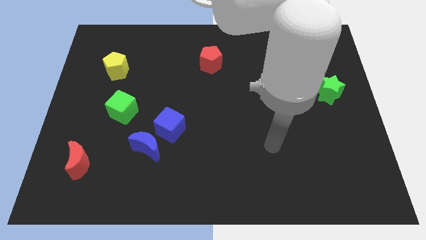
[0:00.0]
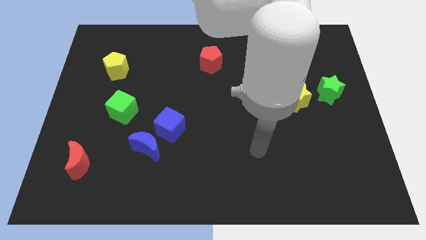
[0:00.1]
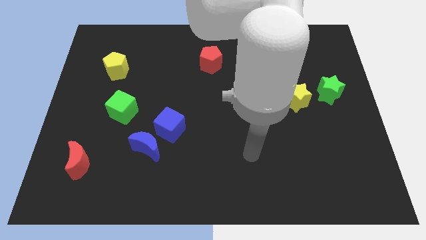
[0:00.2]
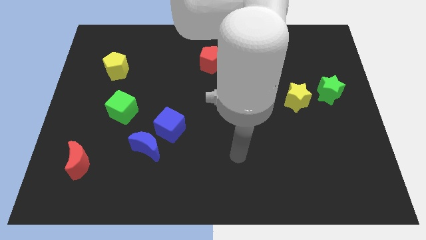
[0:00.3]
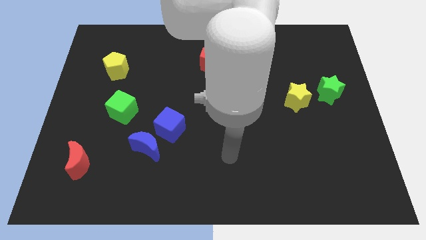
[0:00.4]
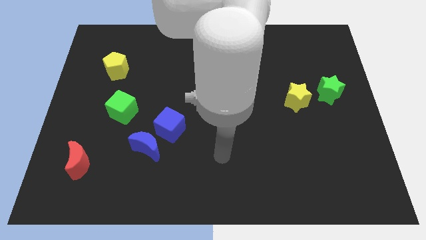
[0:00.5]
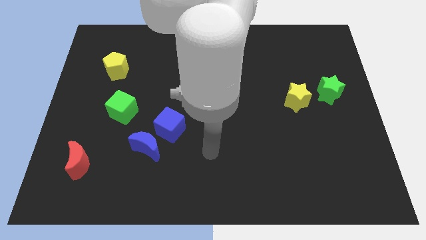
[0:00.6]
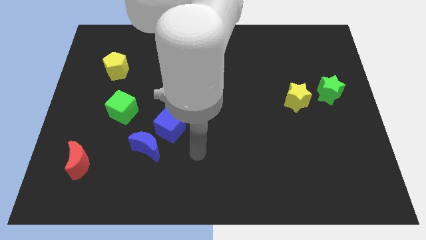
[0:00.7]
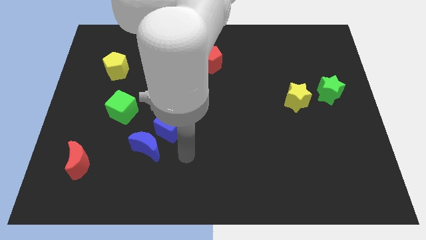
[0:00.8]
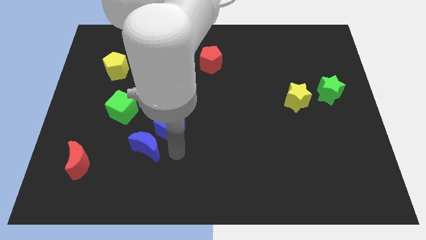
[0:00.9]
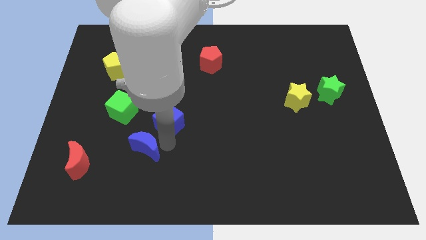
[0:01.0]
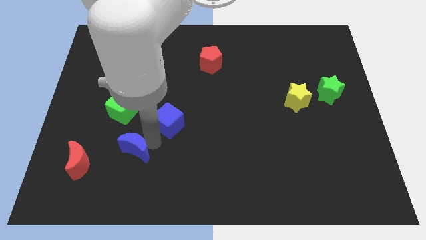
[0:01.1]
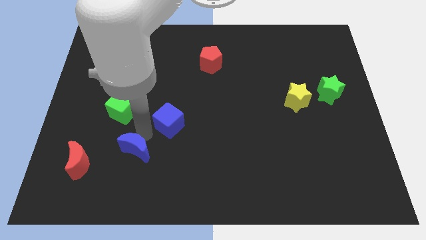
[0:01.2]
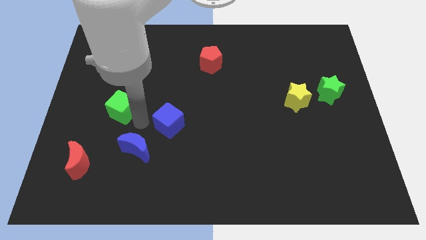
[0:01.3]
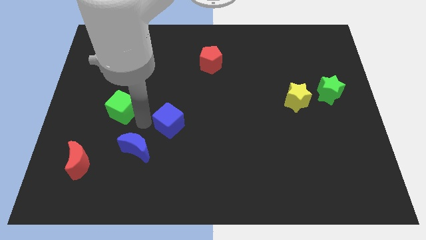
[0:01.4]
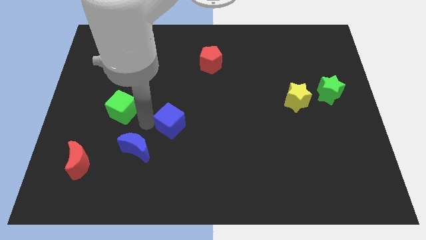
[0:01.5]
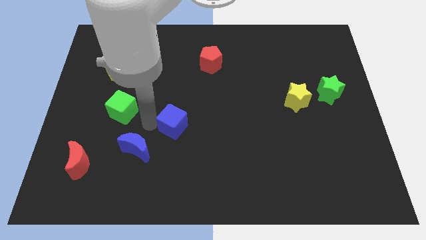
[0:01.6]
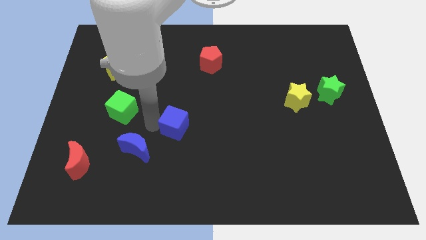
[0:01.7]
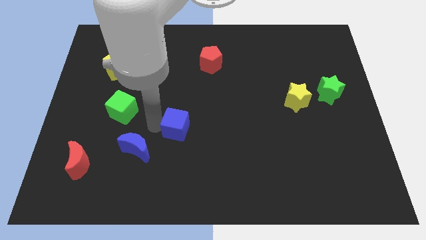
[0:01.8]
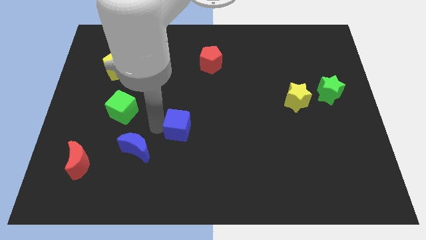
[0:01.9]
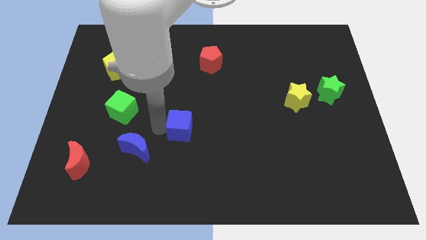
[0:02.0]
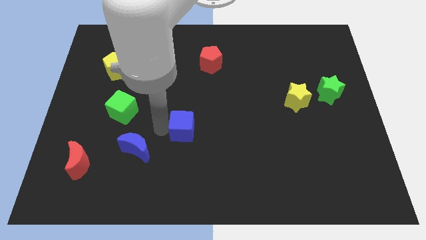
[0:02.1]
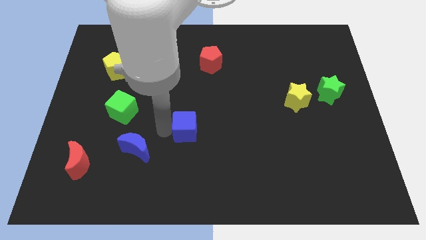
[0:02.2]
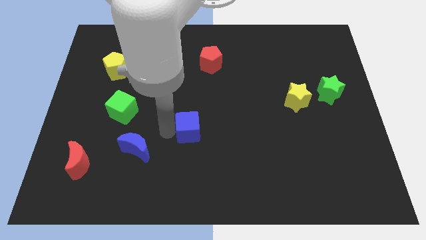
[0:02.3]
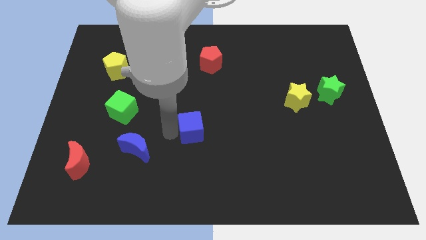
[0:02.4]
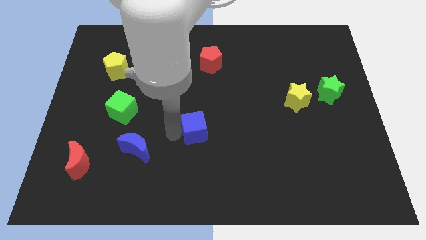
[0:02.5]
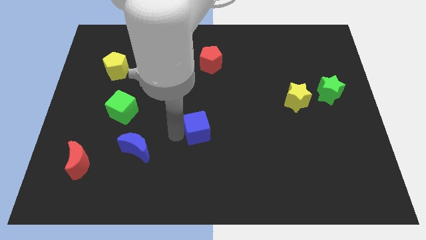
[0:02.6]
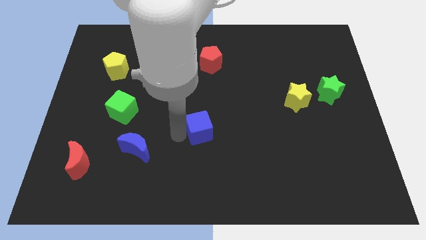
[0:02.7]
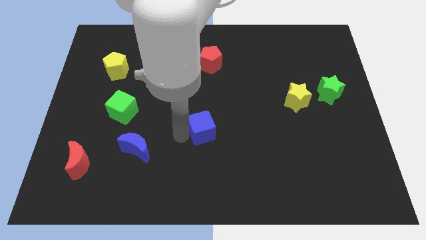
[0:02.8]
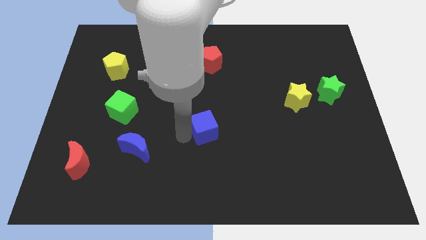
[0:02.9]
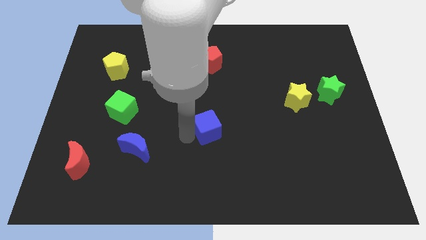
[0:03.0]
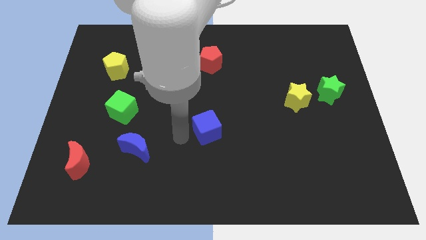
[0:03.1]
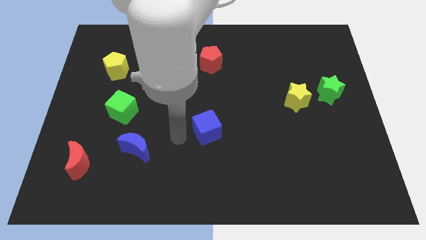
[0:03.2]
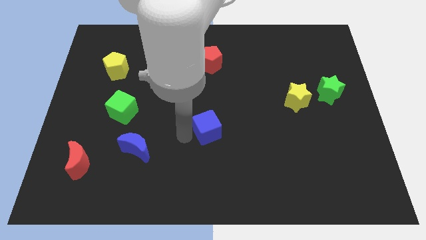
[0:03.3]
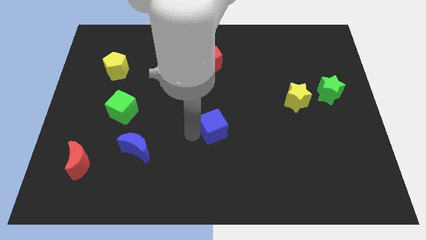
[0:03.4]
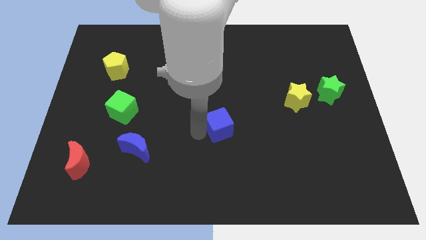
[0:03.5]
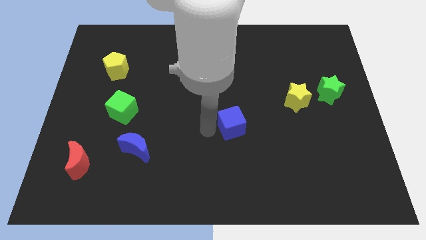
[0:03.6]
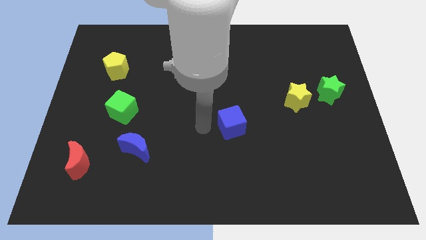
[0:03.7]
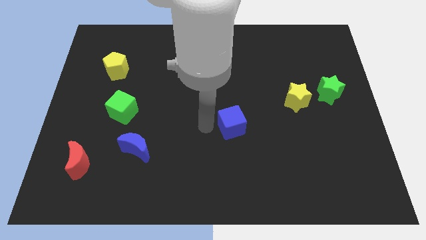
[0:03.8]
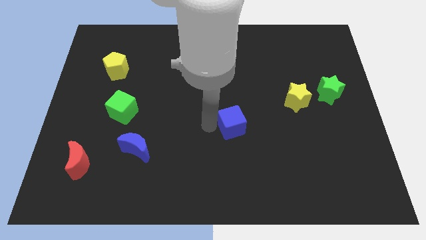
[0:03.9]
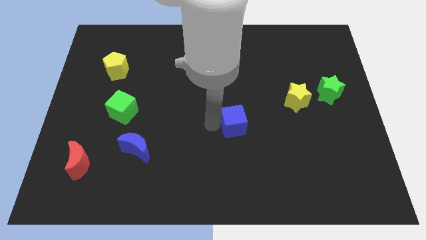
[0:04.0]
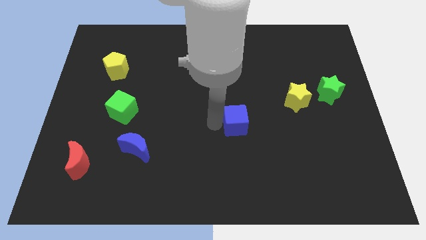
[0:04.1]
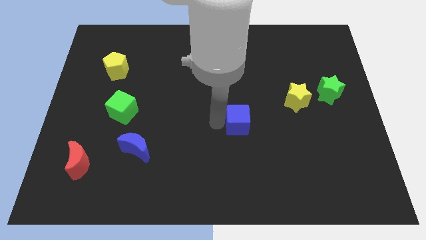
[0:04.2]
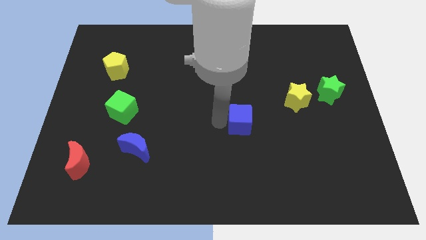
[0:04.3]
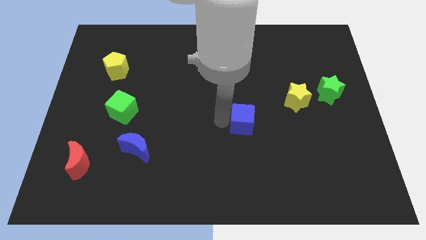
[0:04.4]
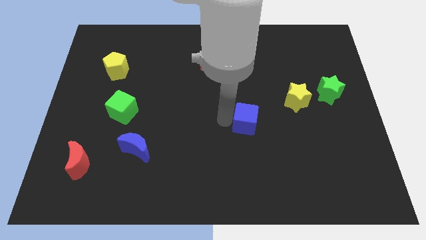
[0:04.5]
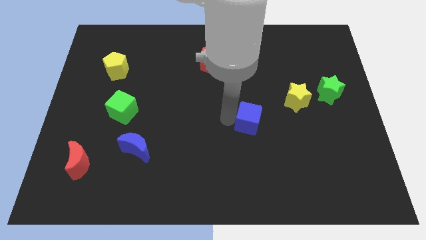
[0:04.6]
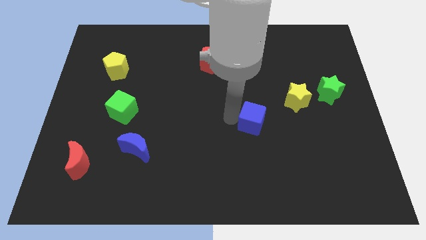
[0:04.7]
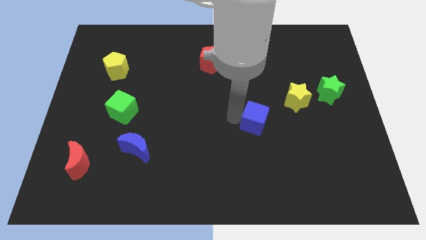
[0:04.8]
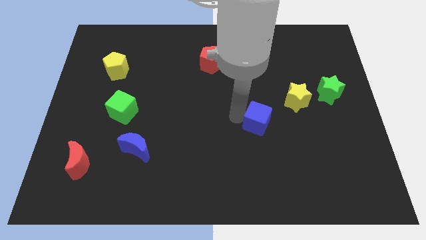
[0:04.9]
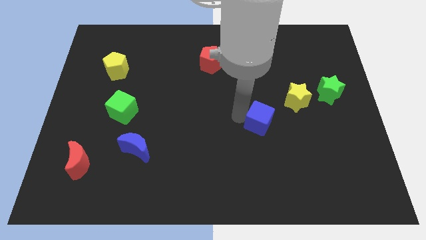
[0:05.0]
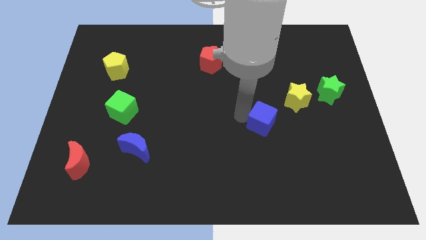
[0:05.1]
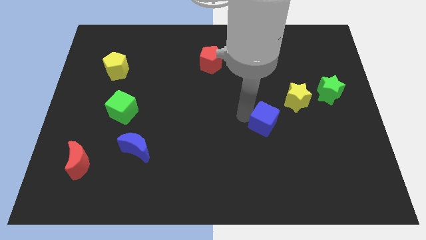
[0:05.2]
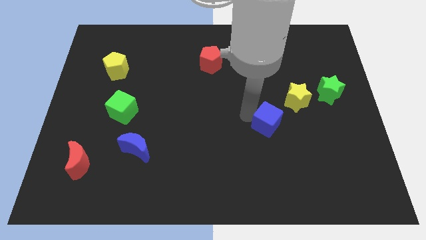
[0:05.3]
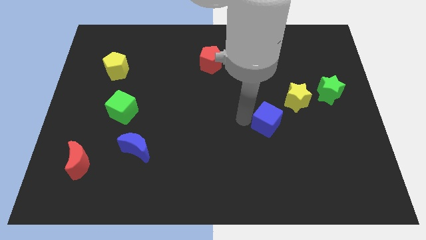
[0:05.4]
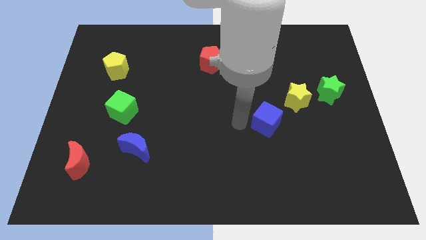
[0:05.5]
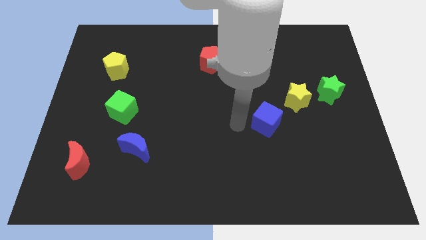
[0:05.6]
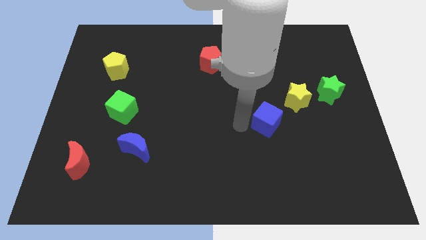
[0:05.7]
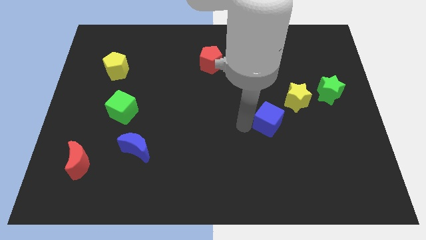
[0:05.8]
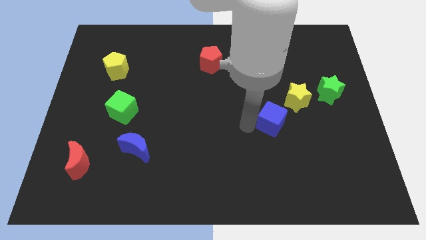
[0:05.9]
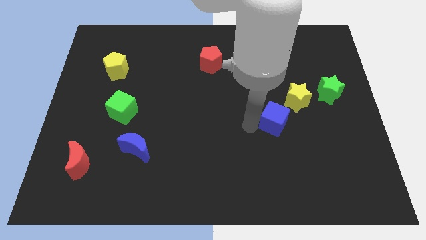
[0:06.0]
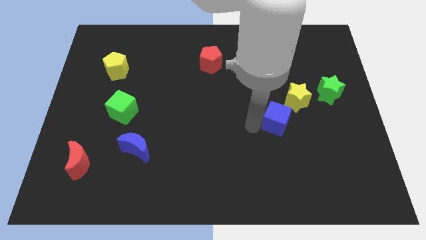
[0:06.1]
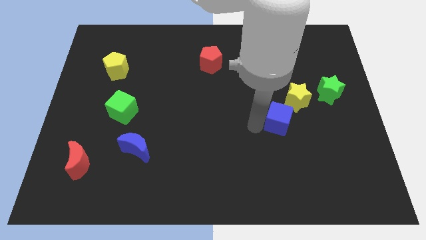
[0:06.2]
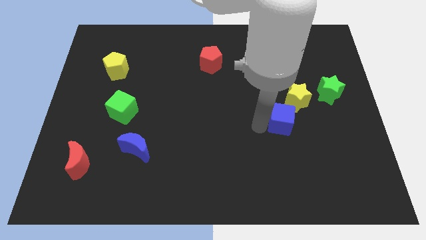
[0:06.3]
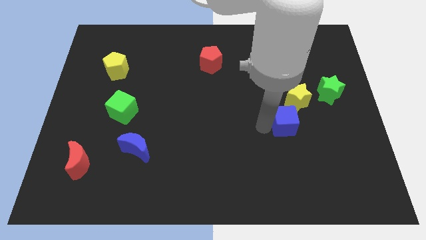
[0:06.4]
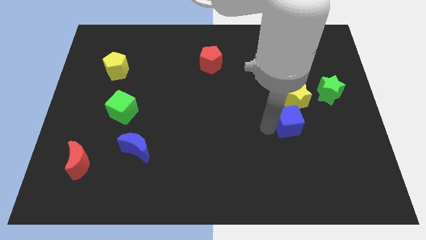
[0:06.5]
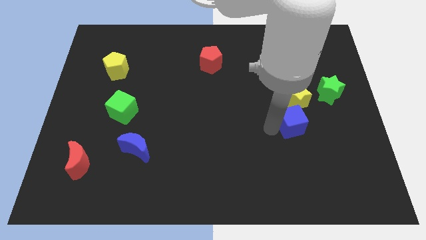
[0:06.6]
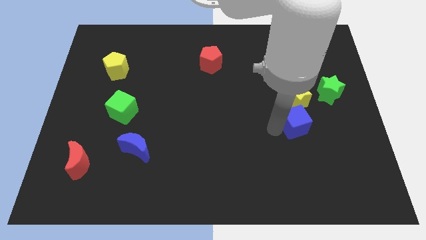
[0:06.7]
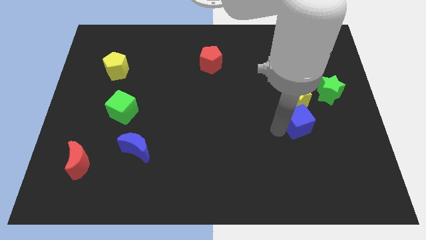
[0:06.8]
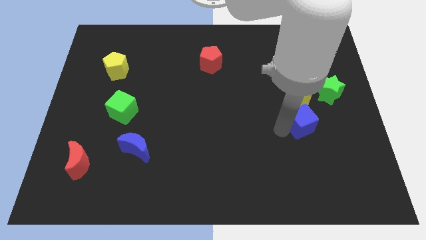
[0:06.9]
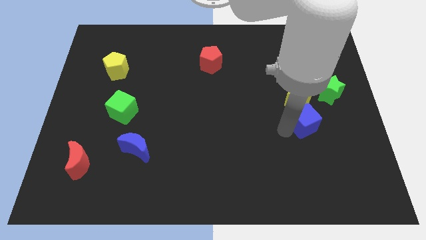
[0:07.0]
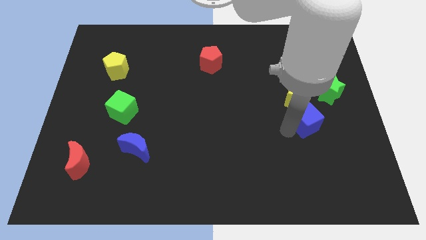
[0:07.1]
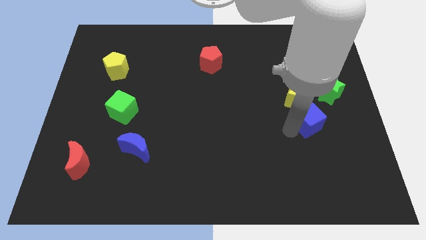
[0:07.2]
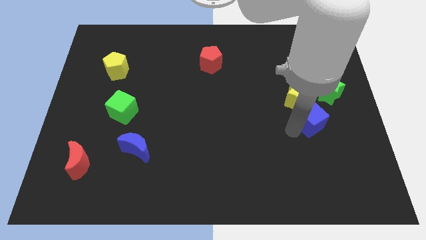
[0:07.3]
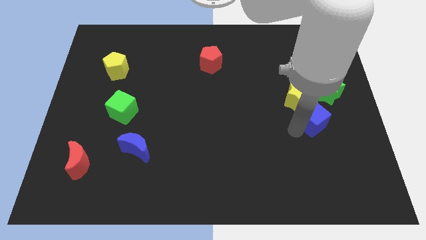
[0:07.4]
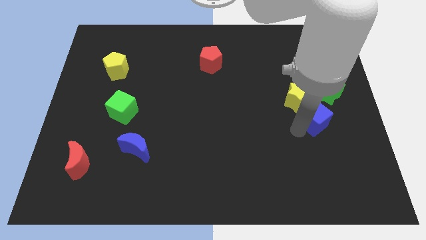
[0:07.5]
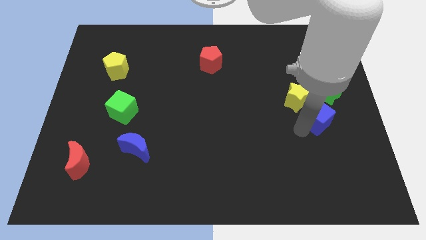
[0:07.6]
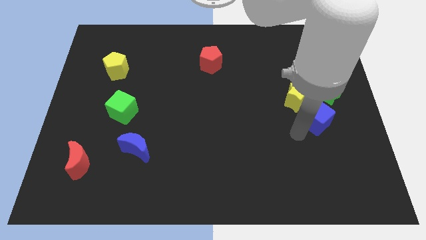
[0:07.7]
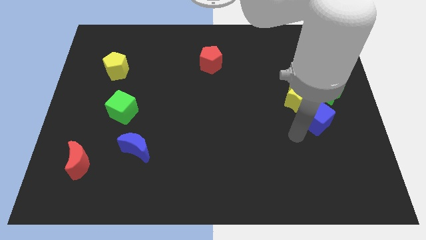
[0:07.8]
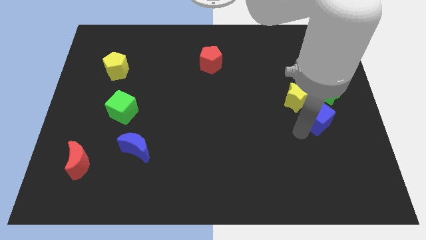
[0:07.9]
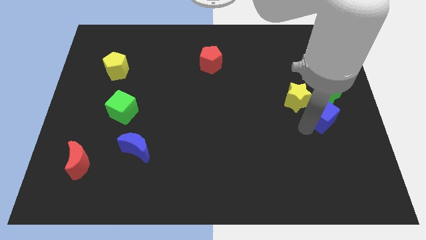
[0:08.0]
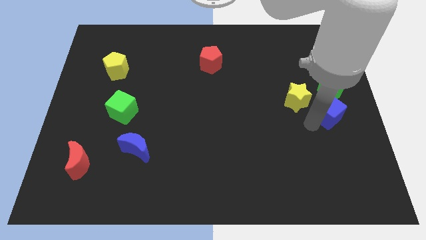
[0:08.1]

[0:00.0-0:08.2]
put the blue cube to the right side
